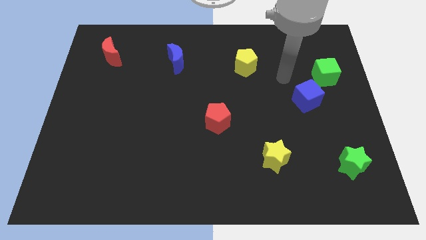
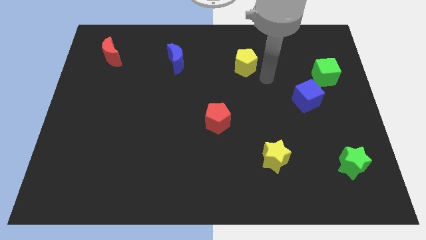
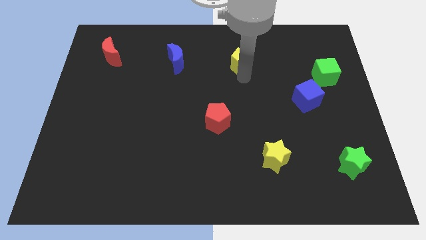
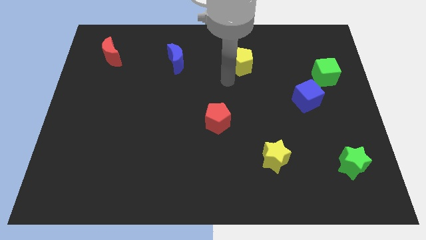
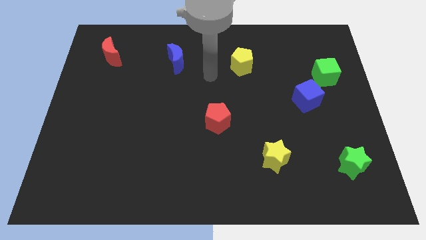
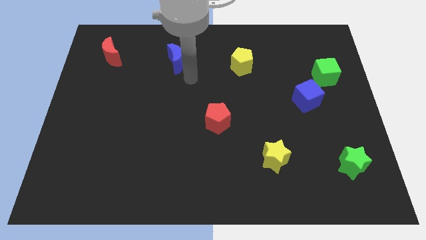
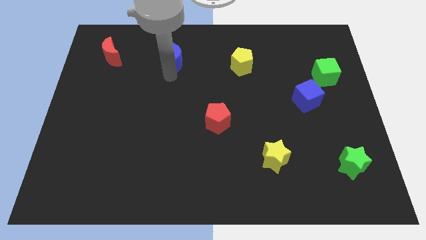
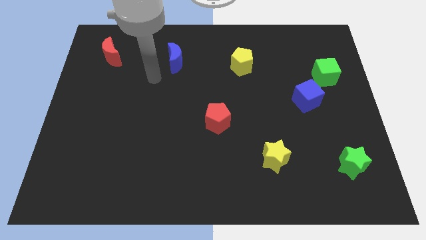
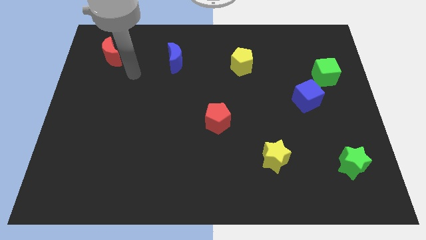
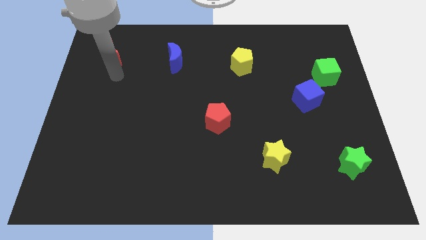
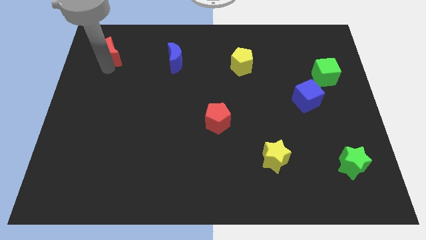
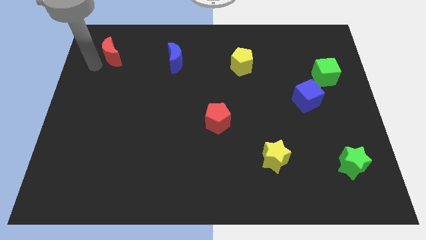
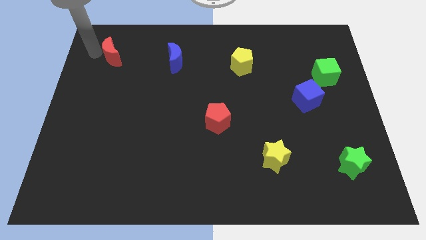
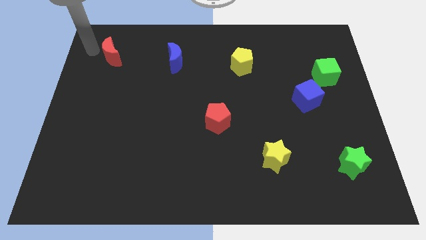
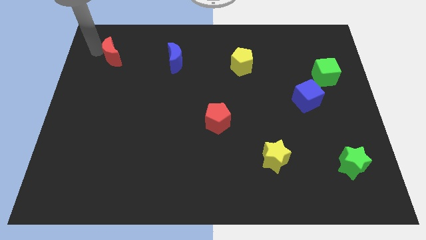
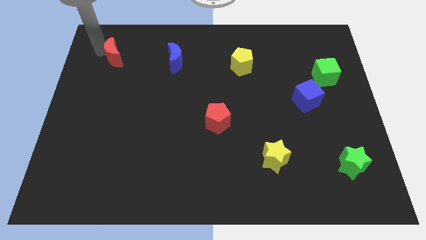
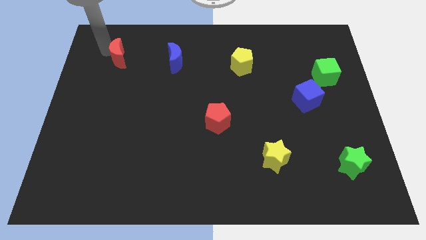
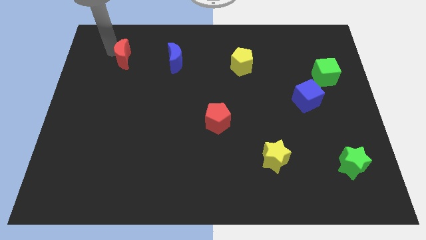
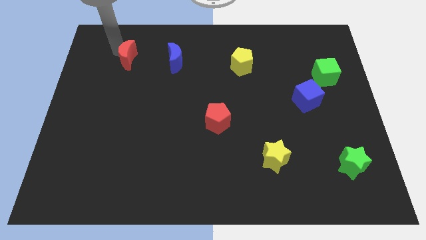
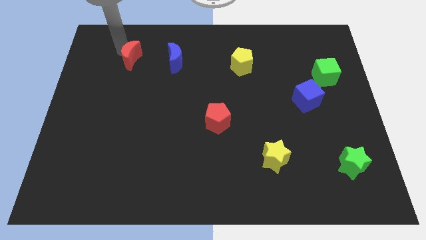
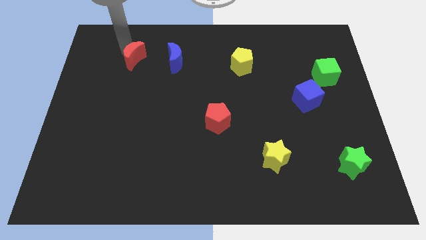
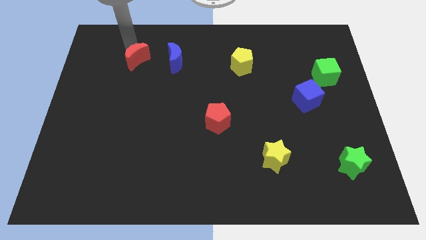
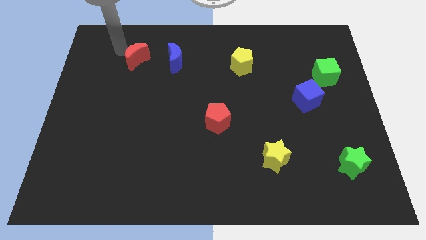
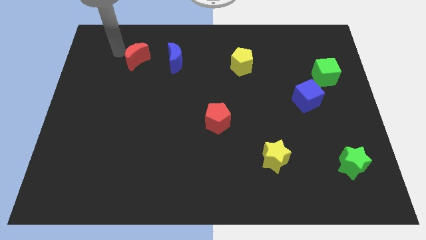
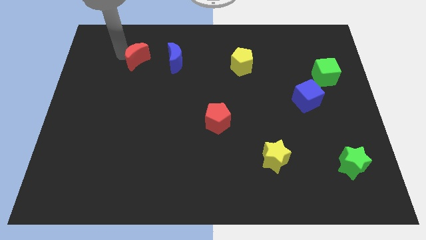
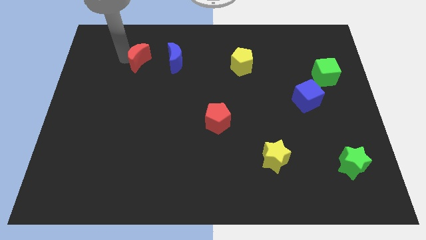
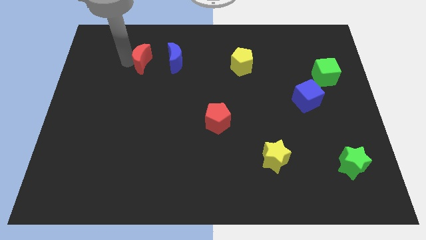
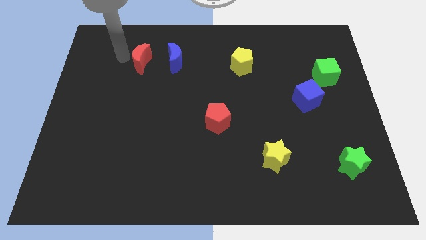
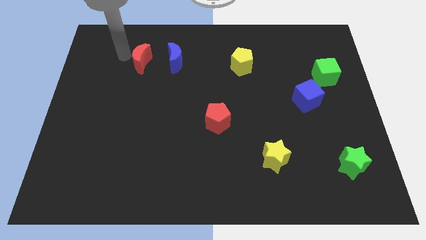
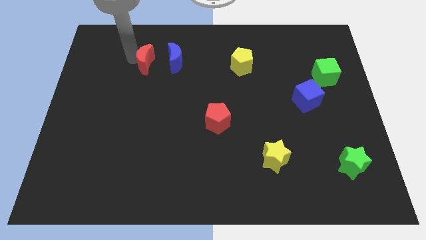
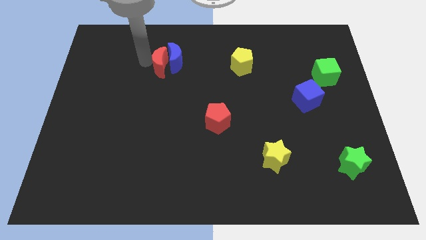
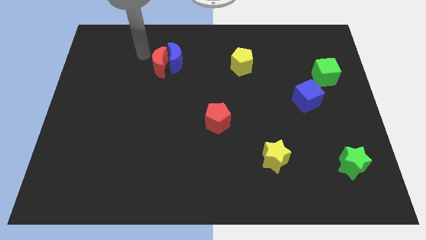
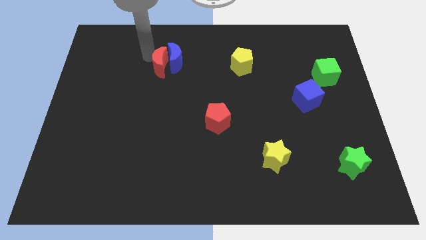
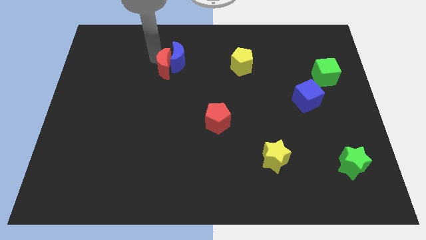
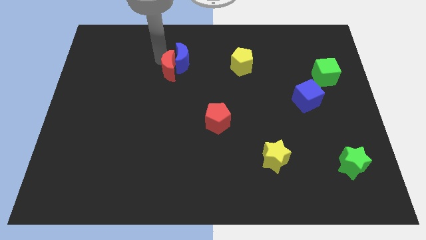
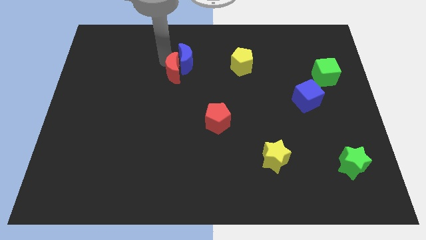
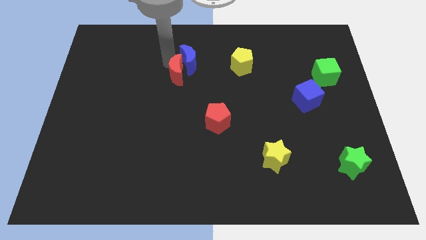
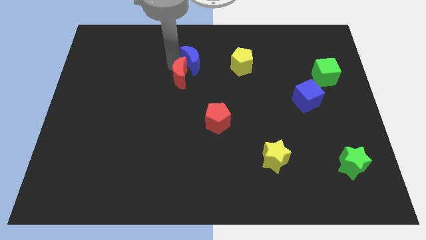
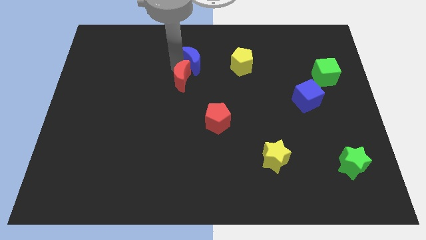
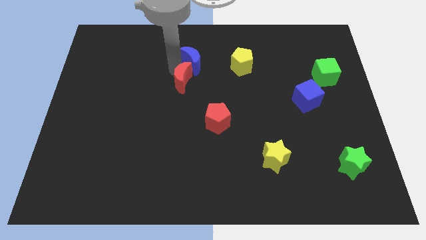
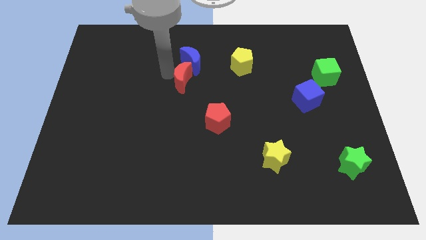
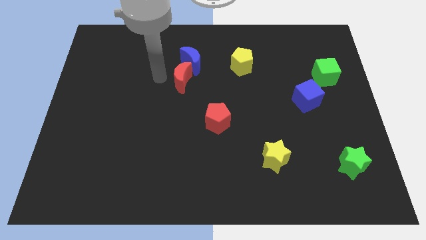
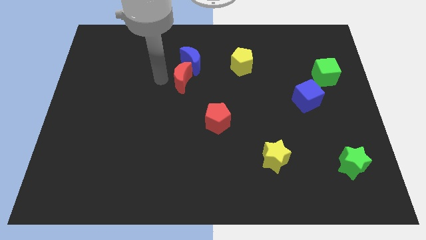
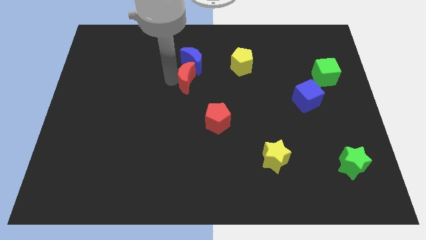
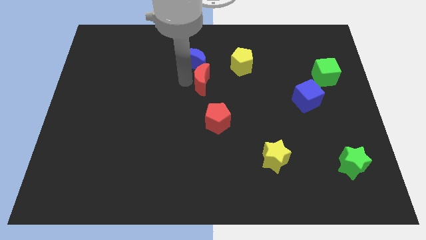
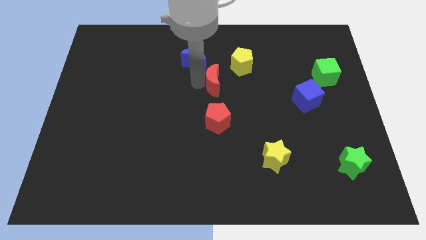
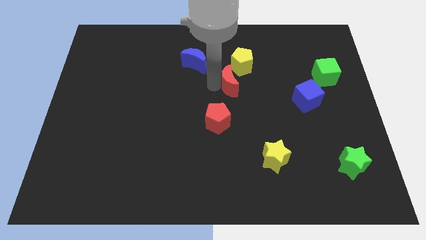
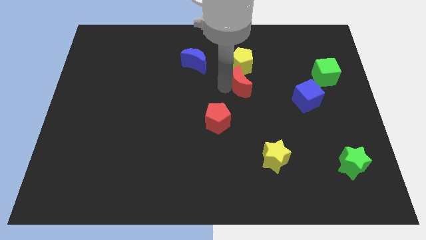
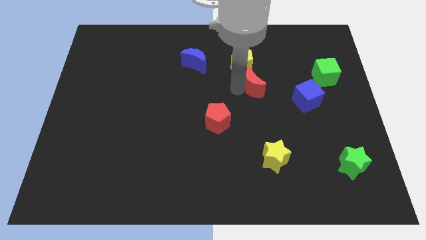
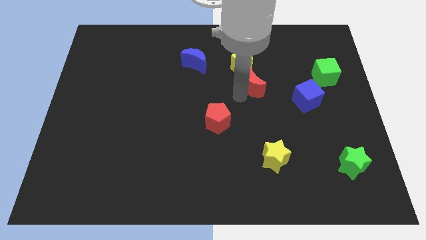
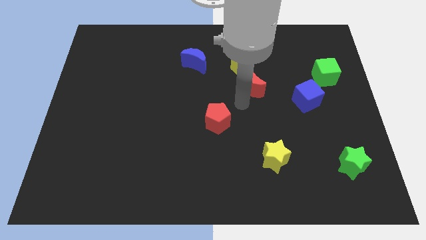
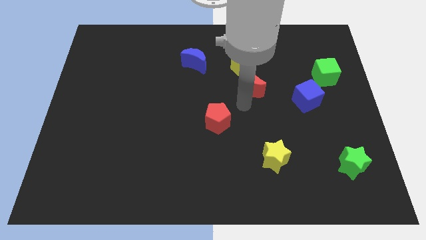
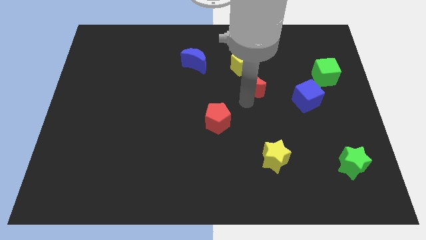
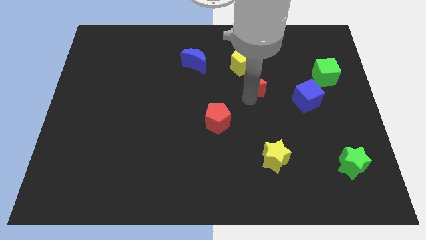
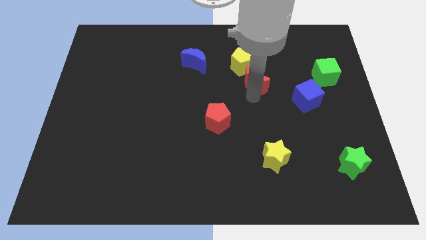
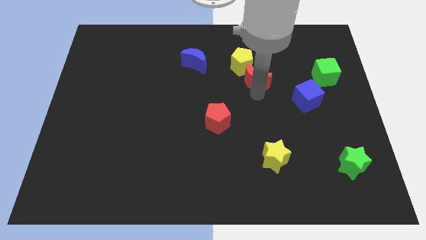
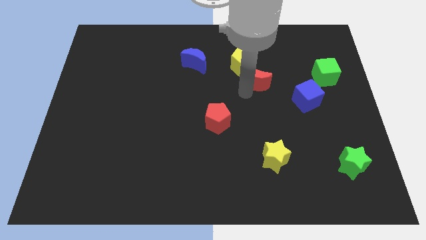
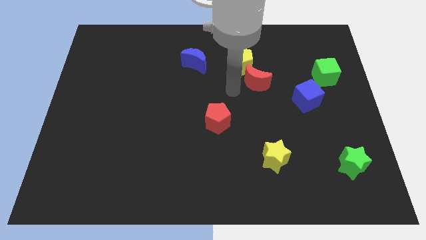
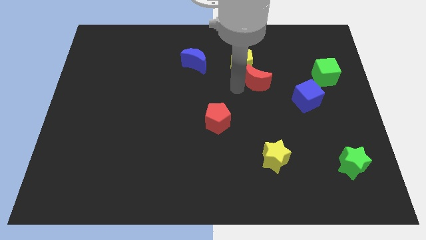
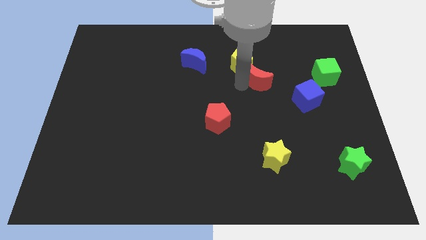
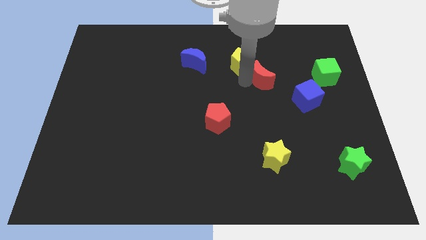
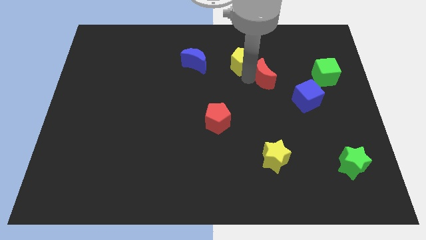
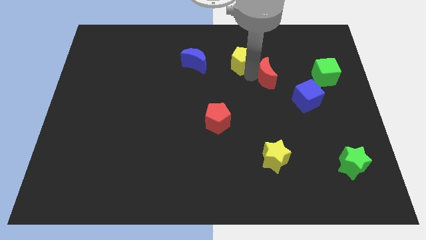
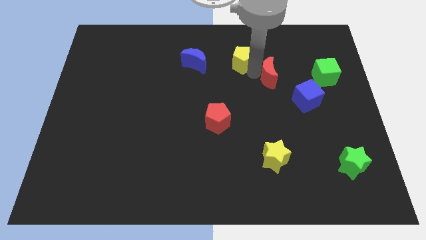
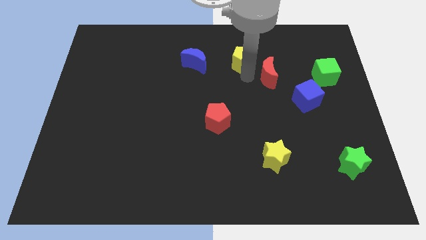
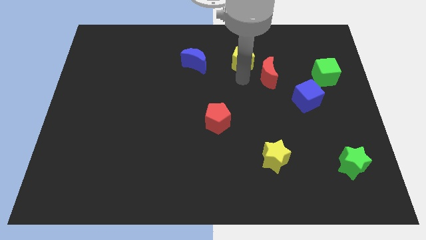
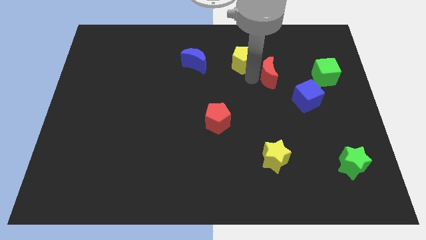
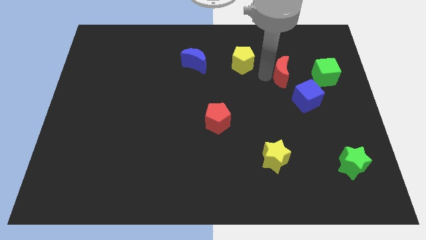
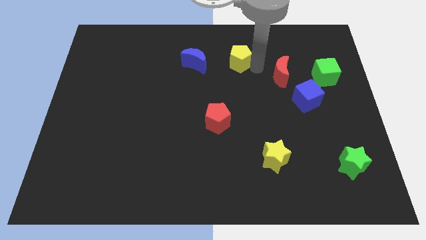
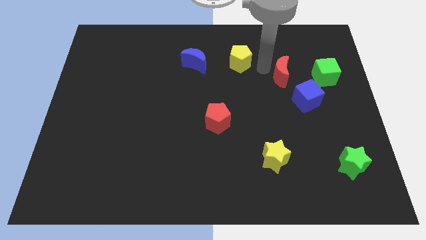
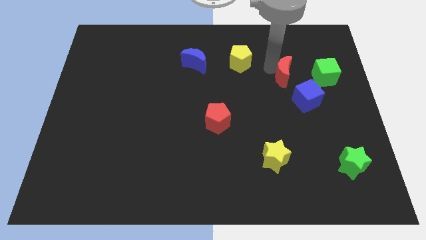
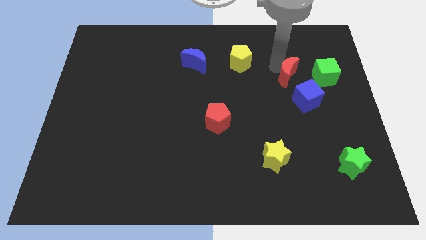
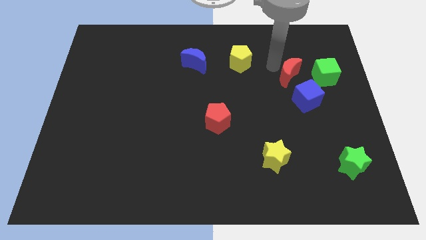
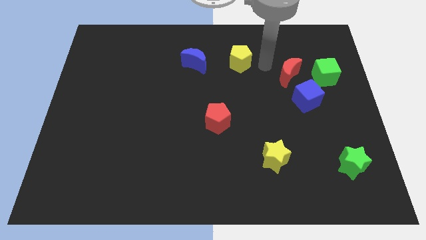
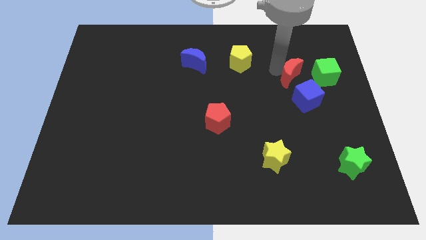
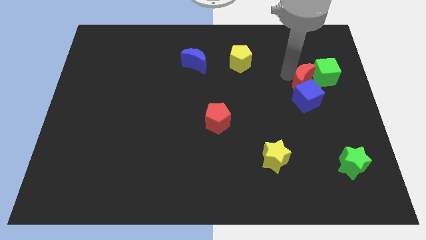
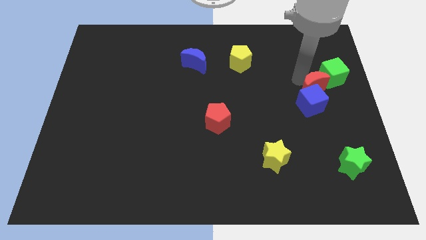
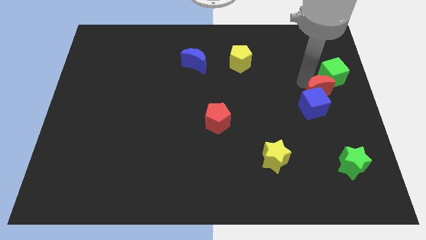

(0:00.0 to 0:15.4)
slide the red moon to the right side
